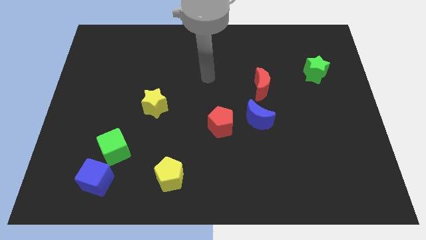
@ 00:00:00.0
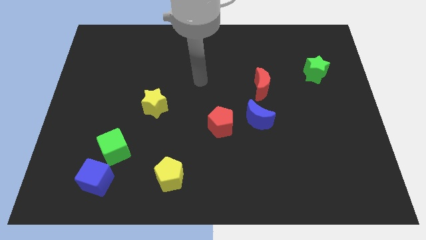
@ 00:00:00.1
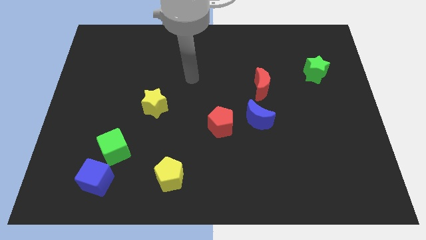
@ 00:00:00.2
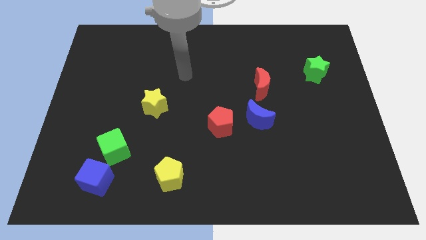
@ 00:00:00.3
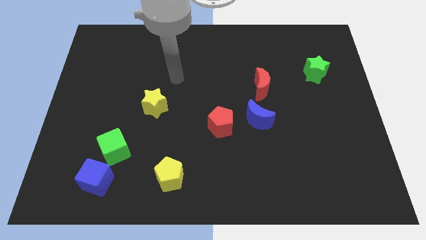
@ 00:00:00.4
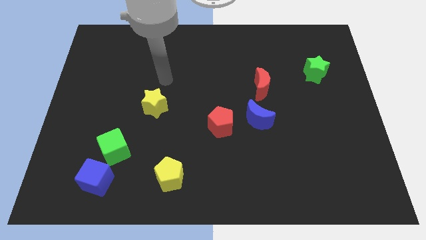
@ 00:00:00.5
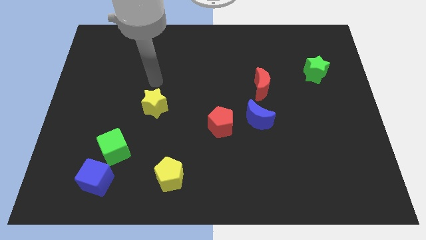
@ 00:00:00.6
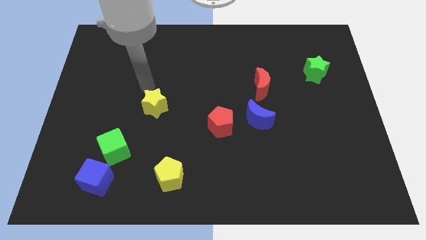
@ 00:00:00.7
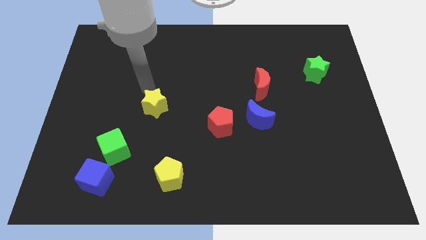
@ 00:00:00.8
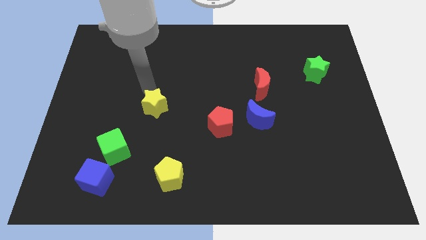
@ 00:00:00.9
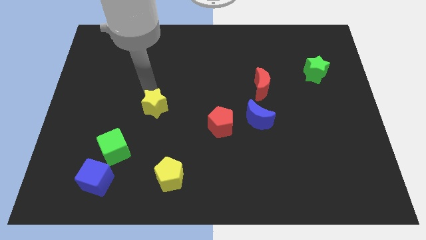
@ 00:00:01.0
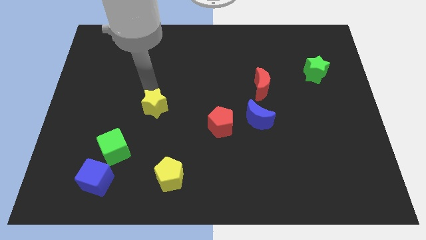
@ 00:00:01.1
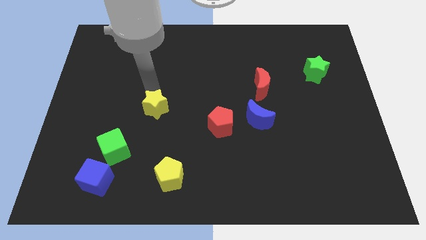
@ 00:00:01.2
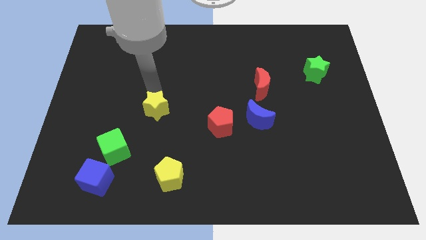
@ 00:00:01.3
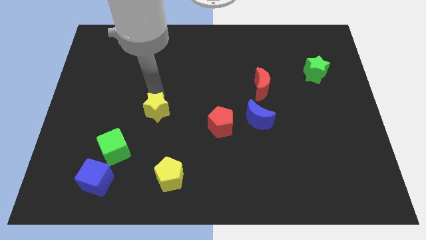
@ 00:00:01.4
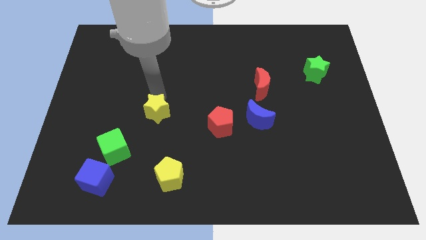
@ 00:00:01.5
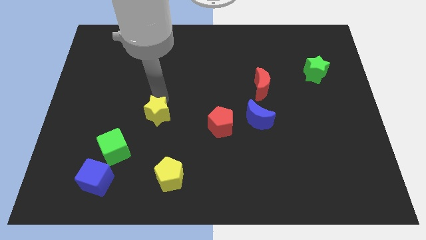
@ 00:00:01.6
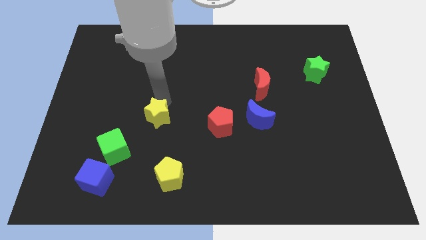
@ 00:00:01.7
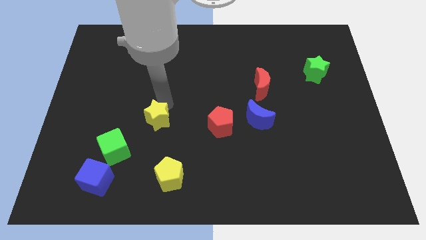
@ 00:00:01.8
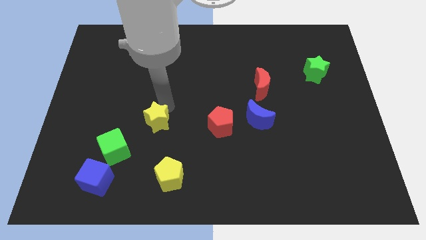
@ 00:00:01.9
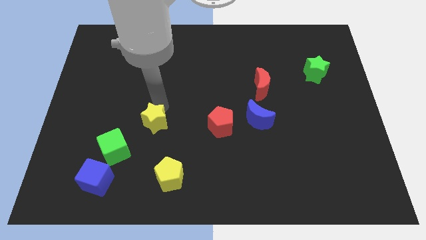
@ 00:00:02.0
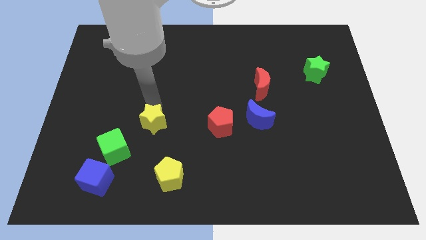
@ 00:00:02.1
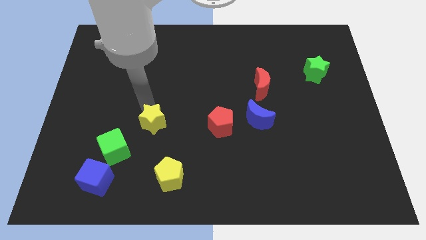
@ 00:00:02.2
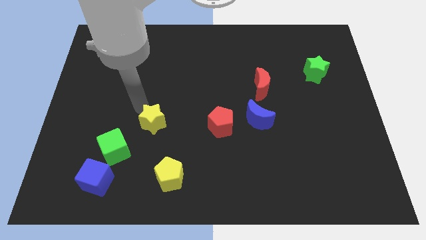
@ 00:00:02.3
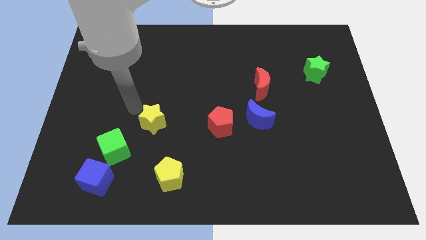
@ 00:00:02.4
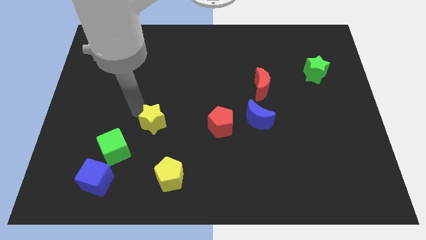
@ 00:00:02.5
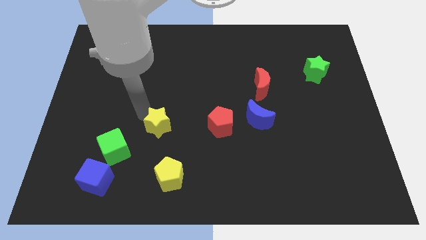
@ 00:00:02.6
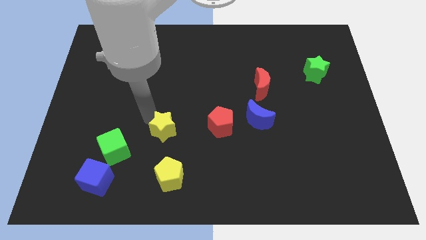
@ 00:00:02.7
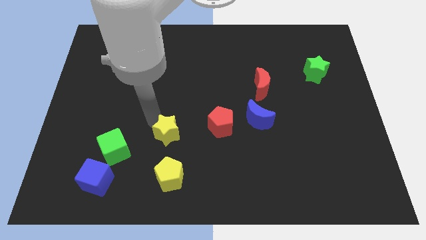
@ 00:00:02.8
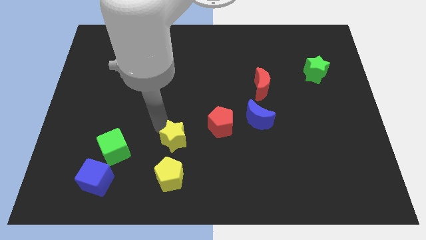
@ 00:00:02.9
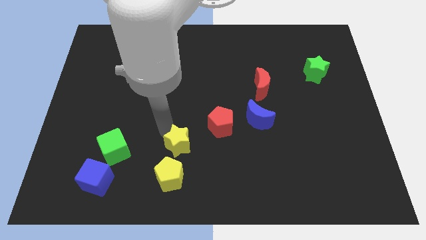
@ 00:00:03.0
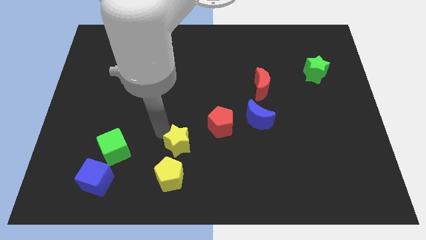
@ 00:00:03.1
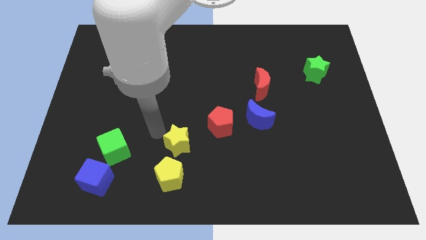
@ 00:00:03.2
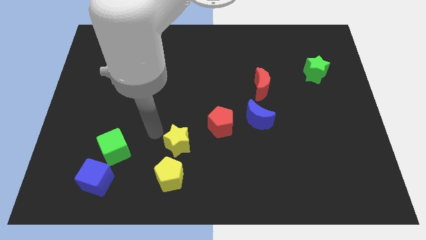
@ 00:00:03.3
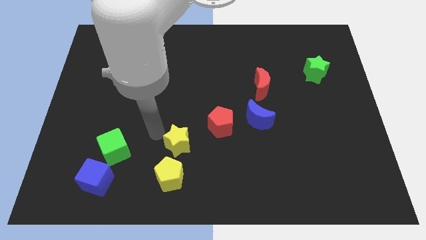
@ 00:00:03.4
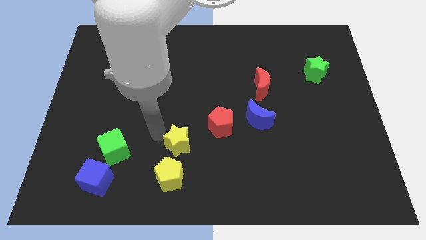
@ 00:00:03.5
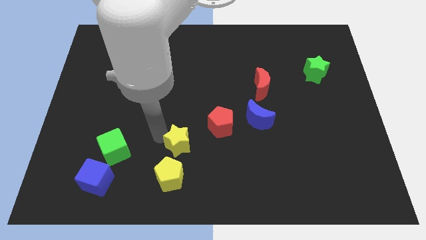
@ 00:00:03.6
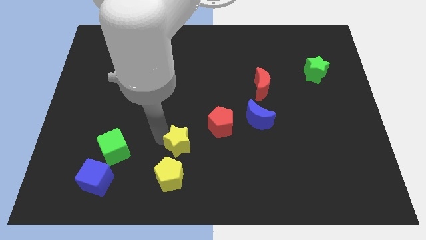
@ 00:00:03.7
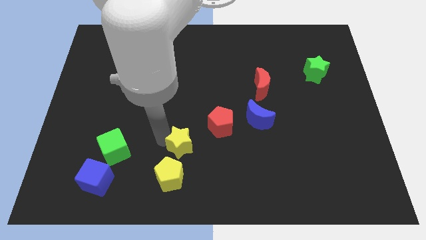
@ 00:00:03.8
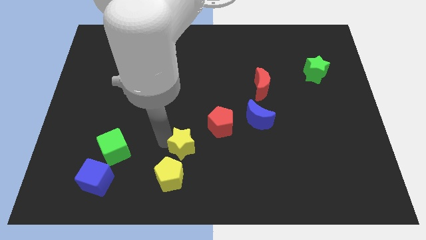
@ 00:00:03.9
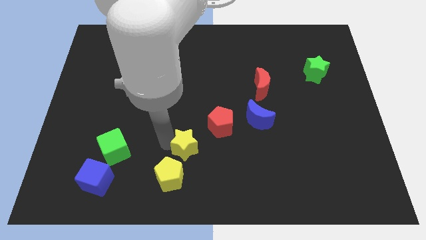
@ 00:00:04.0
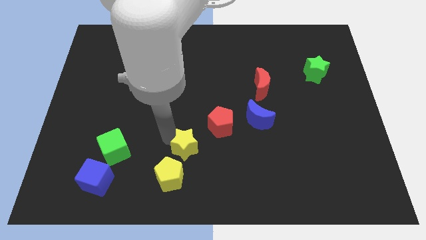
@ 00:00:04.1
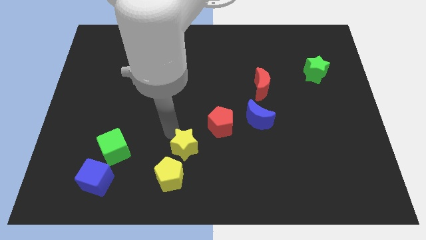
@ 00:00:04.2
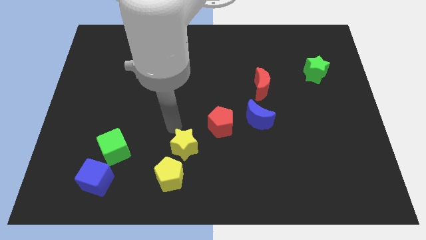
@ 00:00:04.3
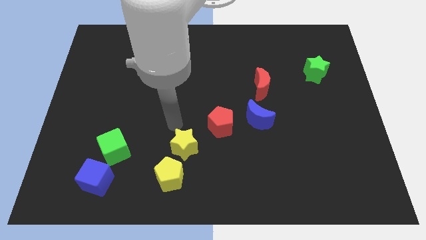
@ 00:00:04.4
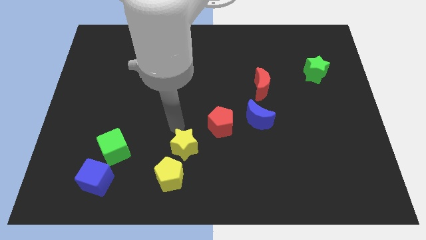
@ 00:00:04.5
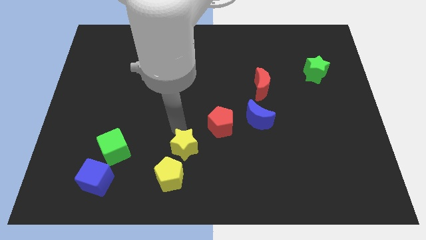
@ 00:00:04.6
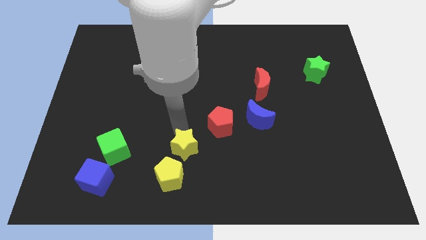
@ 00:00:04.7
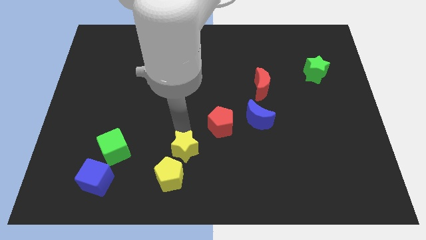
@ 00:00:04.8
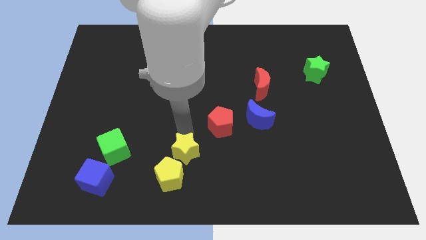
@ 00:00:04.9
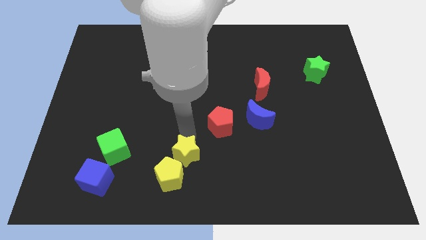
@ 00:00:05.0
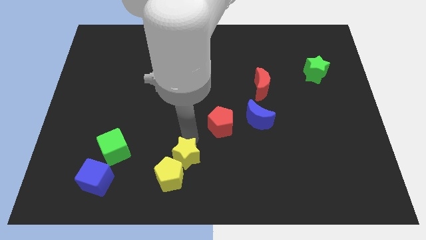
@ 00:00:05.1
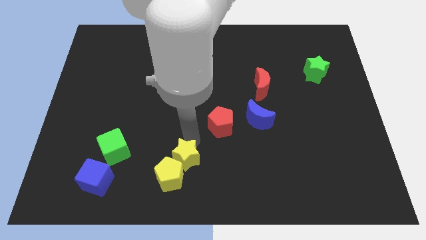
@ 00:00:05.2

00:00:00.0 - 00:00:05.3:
push the yellow star to the bottom

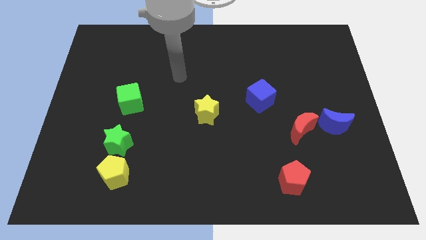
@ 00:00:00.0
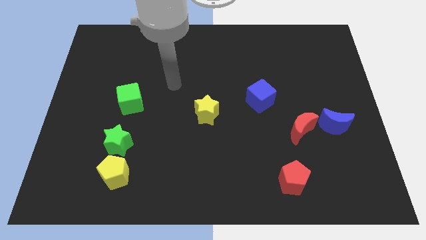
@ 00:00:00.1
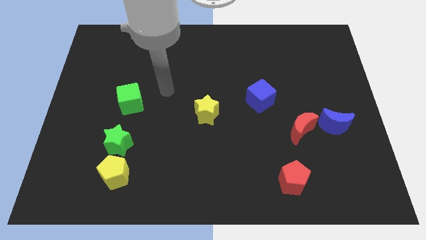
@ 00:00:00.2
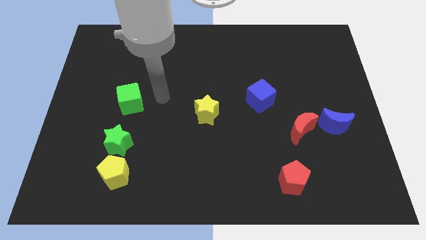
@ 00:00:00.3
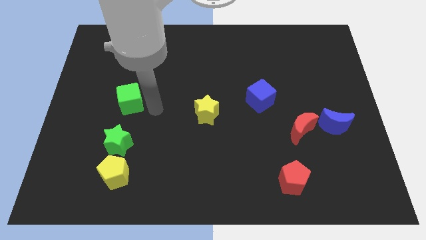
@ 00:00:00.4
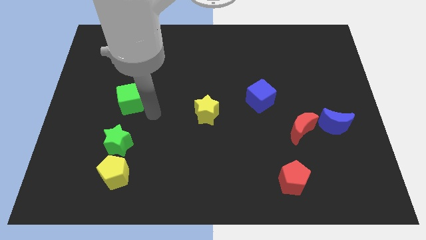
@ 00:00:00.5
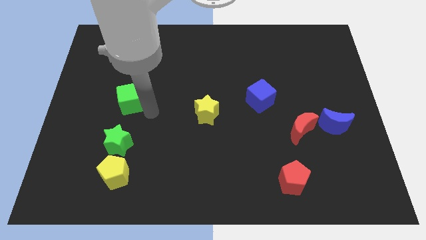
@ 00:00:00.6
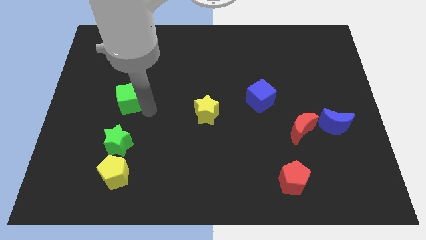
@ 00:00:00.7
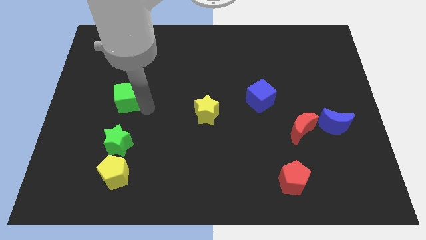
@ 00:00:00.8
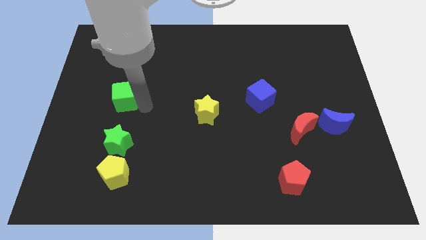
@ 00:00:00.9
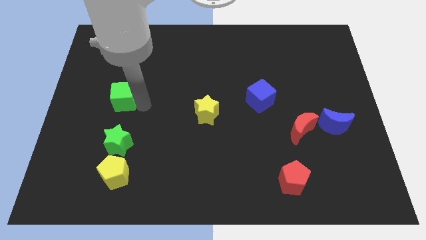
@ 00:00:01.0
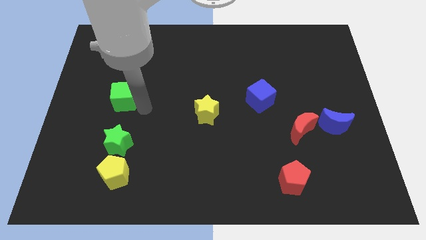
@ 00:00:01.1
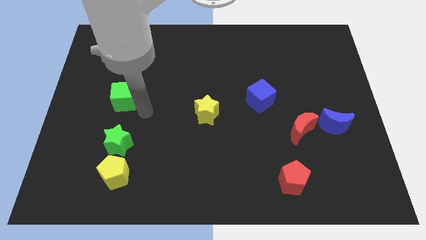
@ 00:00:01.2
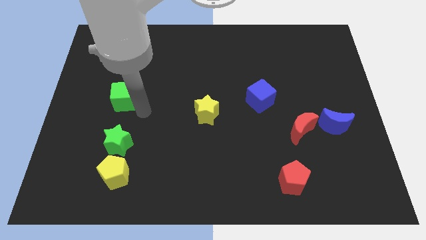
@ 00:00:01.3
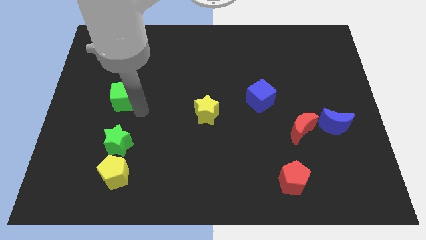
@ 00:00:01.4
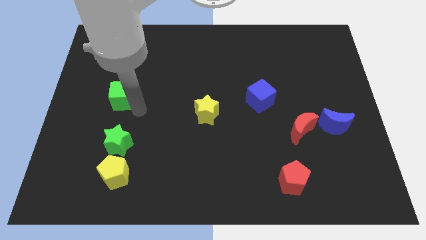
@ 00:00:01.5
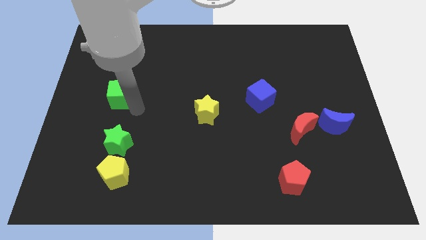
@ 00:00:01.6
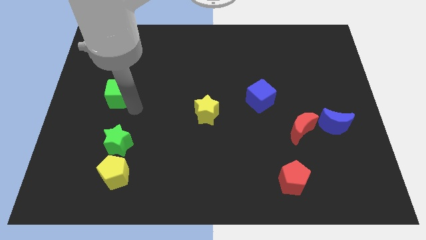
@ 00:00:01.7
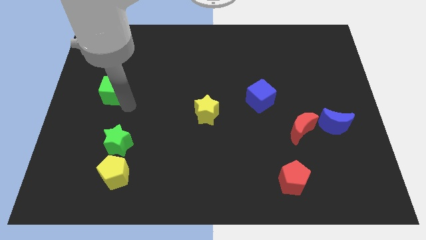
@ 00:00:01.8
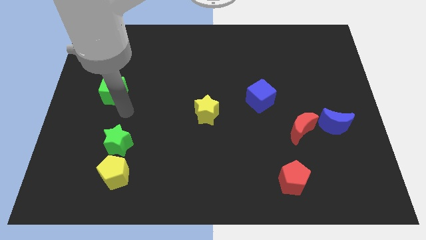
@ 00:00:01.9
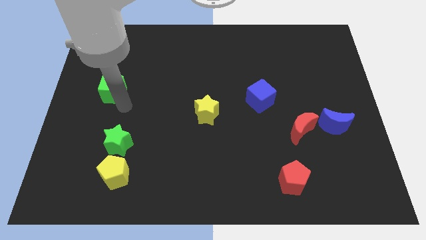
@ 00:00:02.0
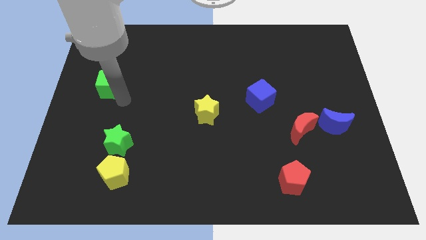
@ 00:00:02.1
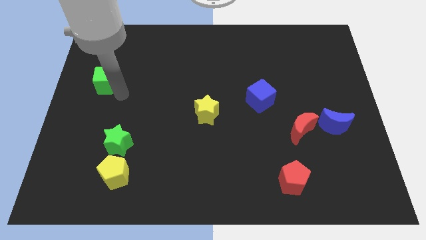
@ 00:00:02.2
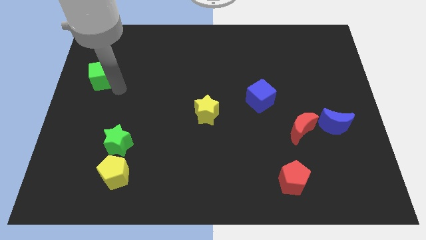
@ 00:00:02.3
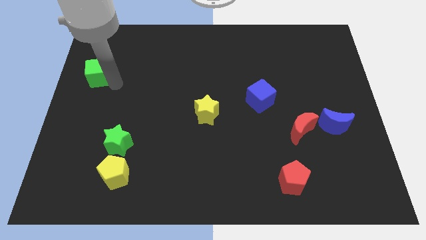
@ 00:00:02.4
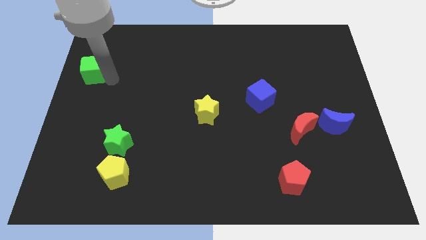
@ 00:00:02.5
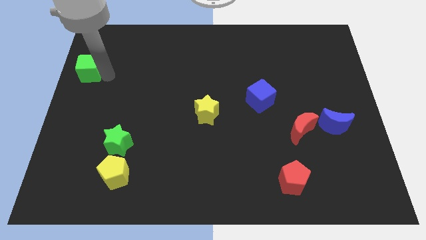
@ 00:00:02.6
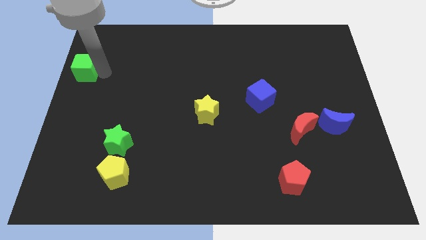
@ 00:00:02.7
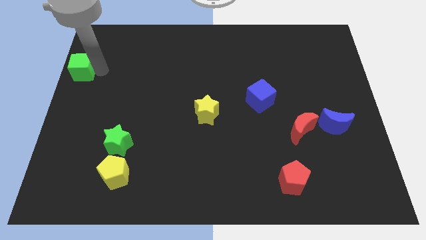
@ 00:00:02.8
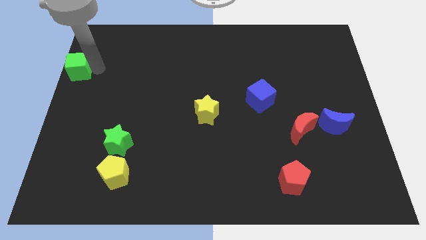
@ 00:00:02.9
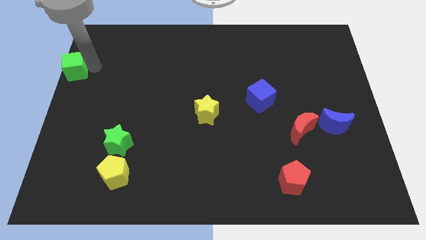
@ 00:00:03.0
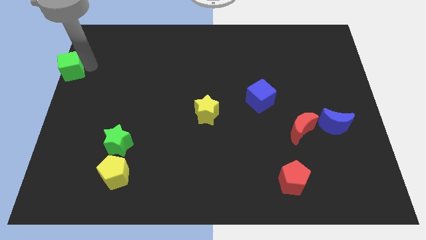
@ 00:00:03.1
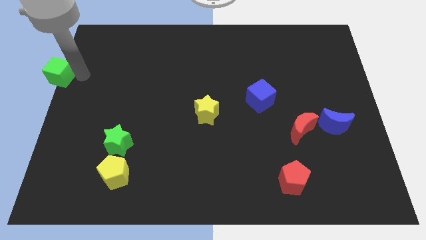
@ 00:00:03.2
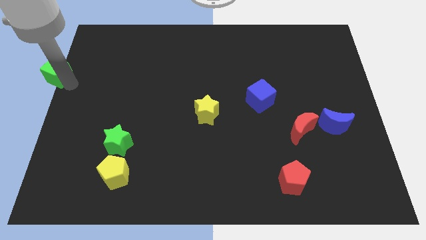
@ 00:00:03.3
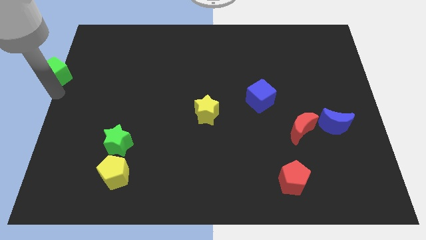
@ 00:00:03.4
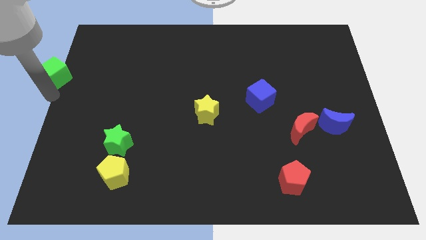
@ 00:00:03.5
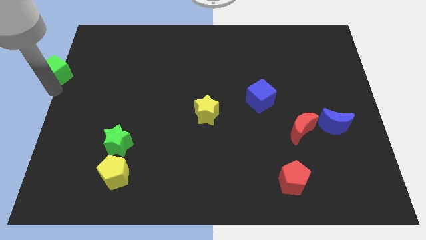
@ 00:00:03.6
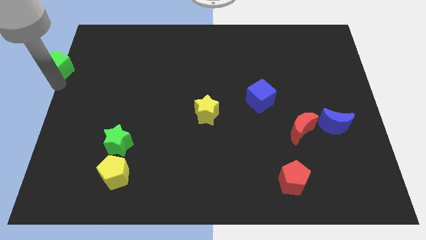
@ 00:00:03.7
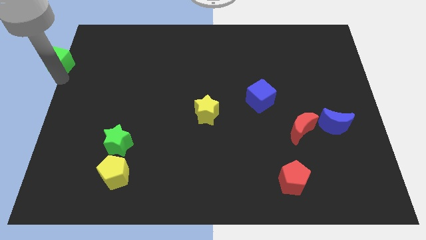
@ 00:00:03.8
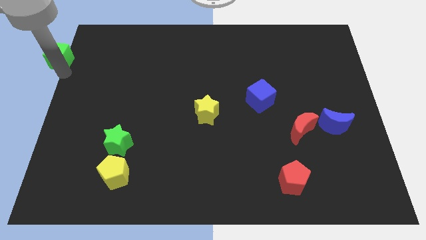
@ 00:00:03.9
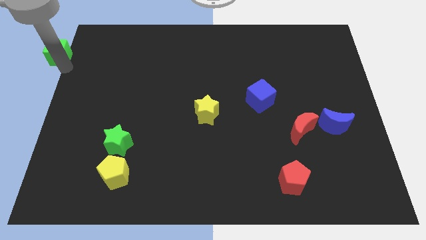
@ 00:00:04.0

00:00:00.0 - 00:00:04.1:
move the green cube to the top left corner
